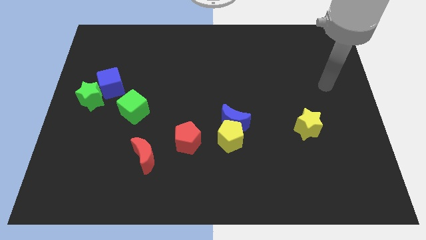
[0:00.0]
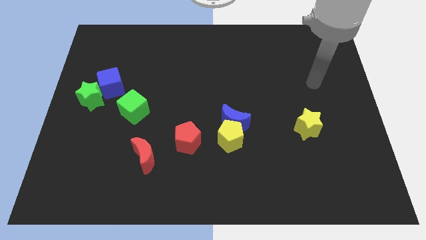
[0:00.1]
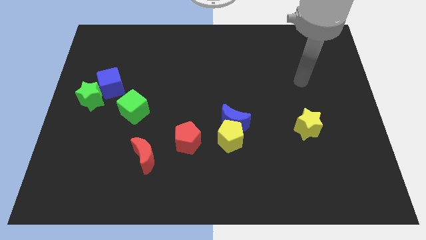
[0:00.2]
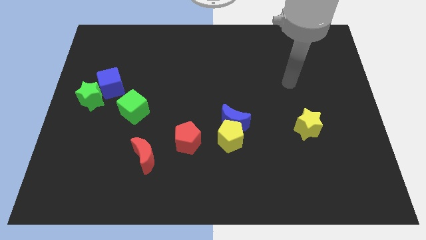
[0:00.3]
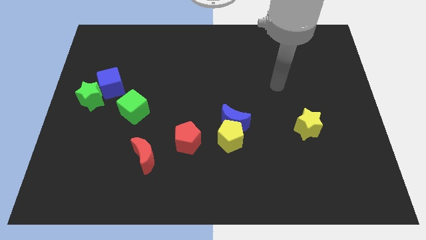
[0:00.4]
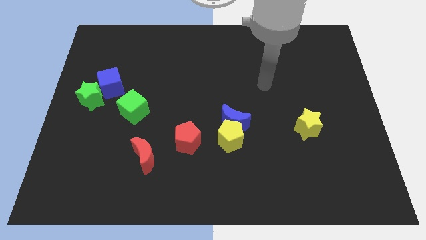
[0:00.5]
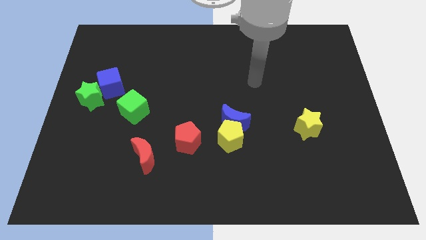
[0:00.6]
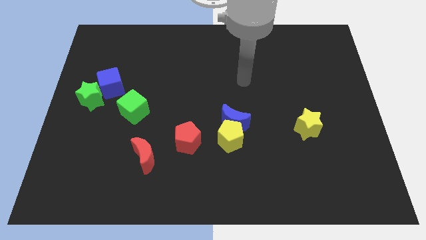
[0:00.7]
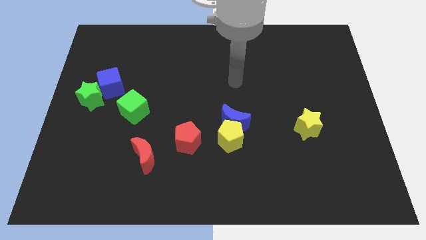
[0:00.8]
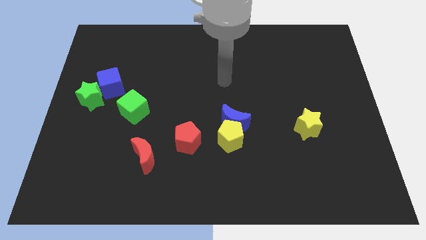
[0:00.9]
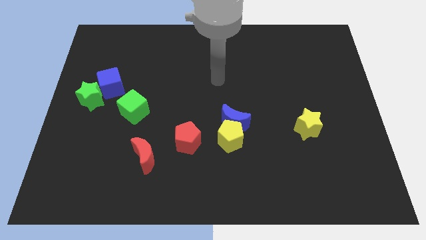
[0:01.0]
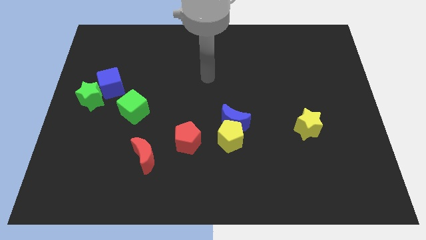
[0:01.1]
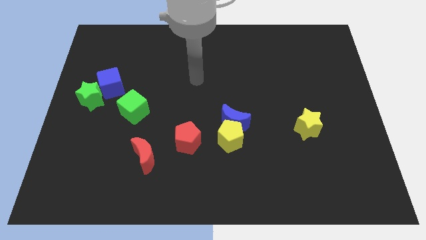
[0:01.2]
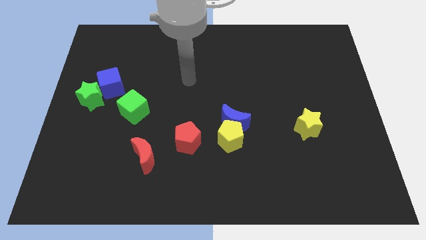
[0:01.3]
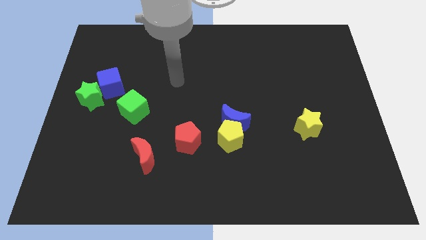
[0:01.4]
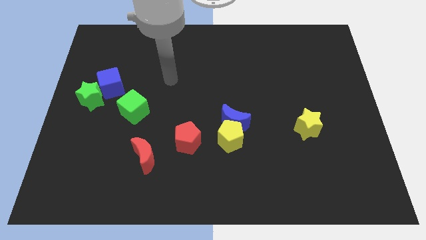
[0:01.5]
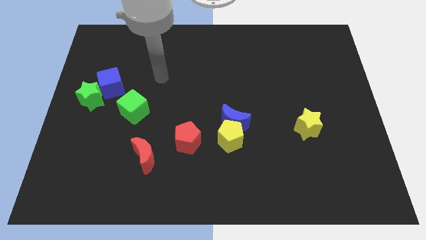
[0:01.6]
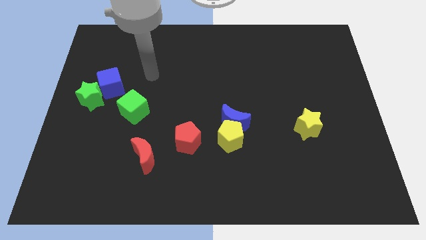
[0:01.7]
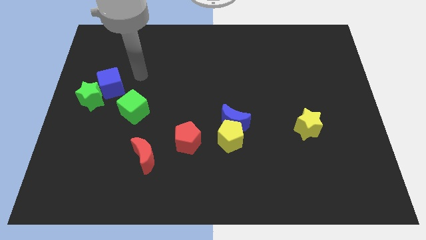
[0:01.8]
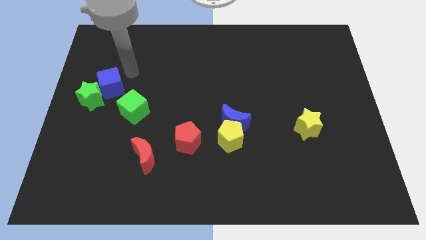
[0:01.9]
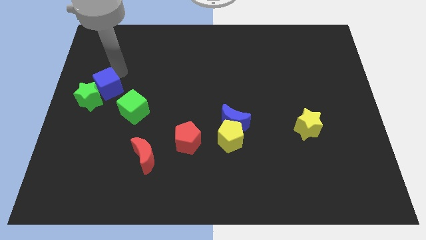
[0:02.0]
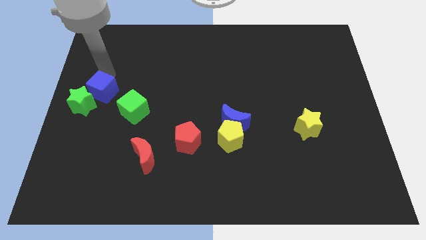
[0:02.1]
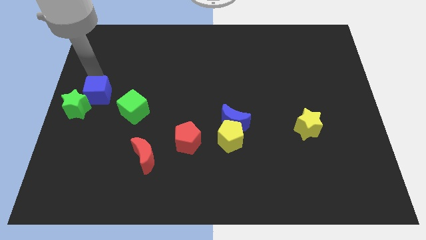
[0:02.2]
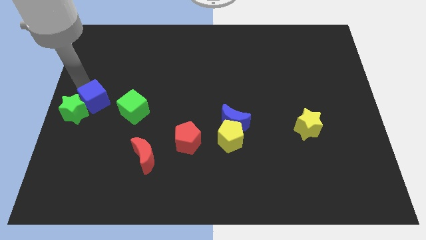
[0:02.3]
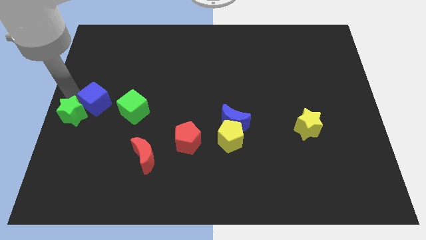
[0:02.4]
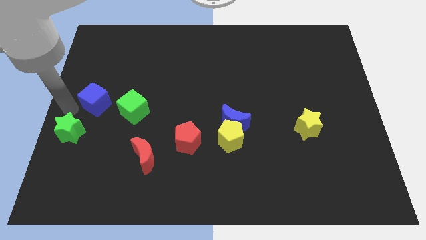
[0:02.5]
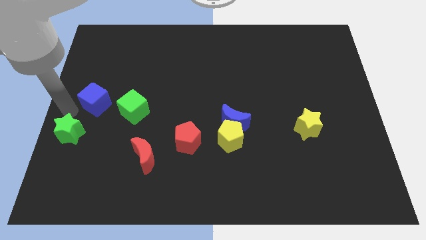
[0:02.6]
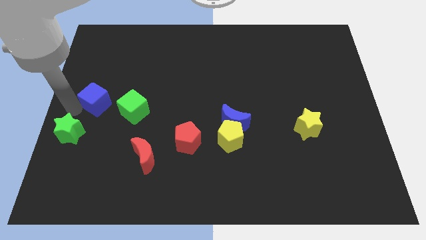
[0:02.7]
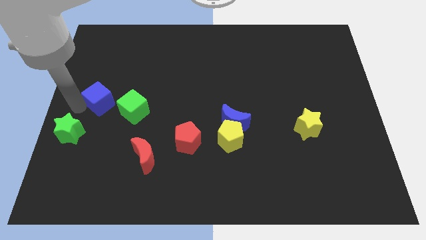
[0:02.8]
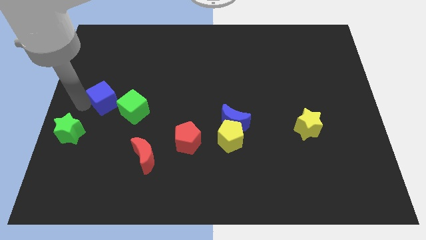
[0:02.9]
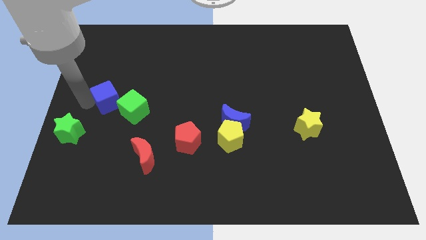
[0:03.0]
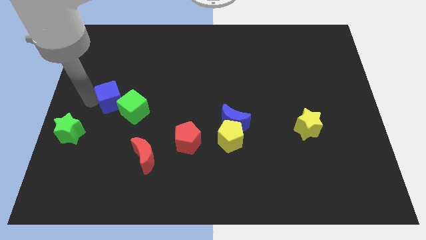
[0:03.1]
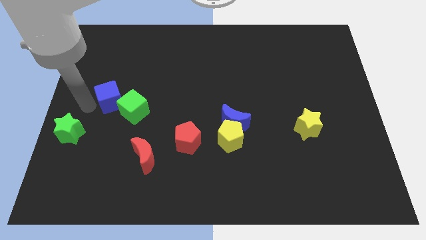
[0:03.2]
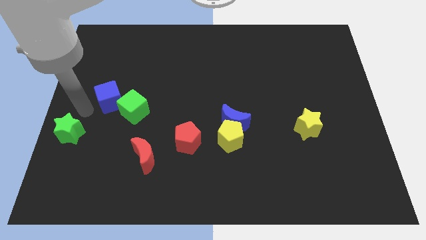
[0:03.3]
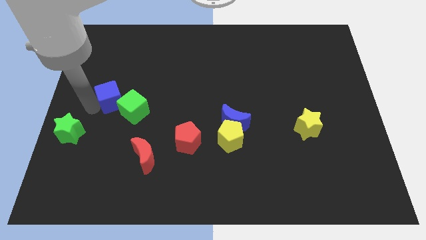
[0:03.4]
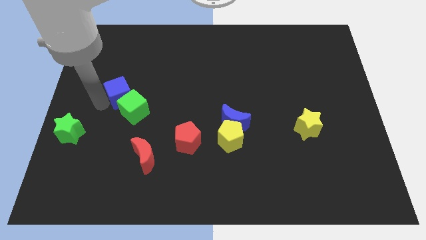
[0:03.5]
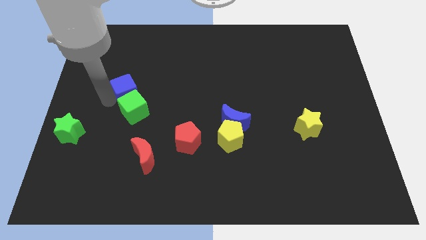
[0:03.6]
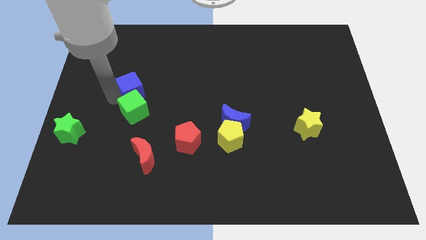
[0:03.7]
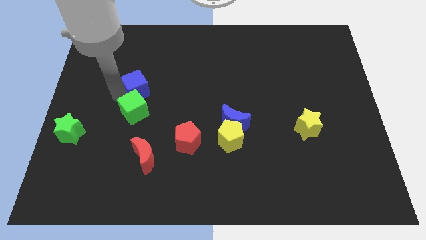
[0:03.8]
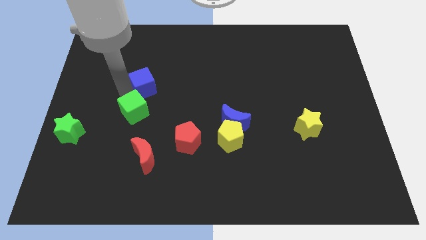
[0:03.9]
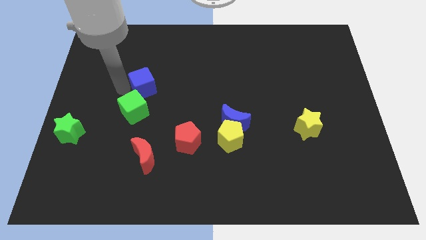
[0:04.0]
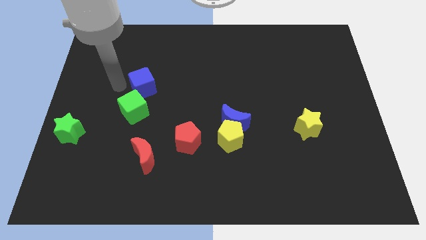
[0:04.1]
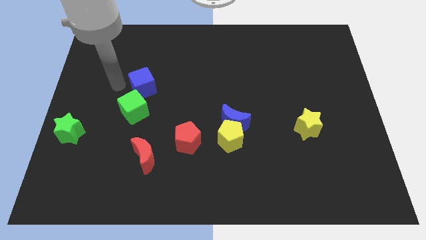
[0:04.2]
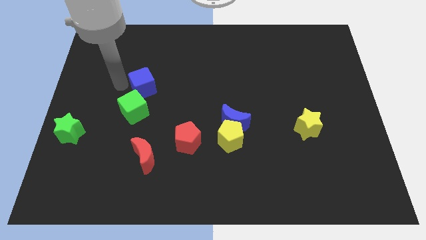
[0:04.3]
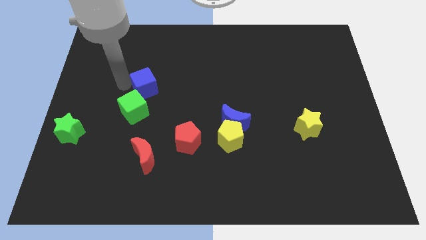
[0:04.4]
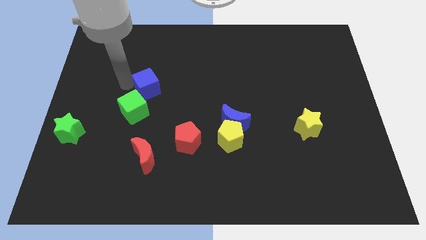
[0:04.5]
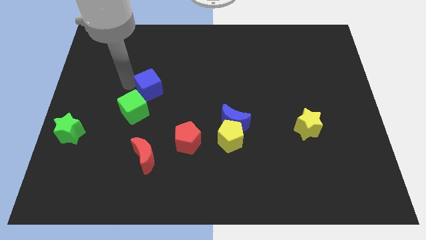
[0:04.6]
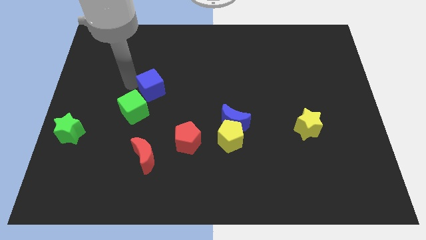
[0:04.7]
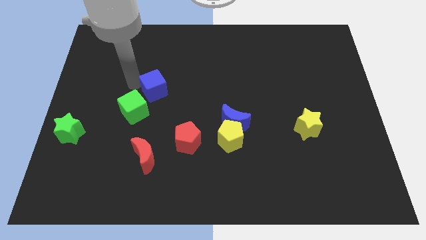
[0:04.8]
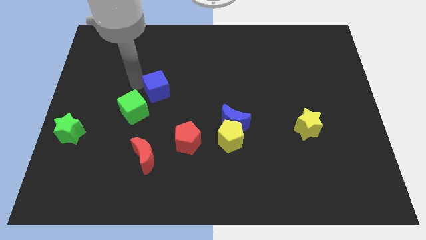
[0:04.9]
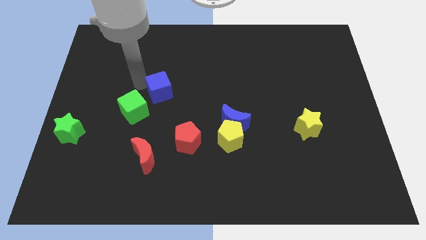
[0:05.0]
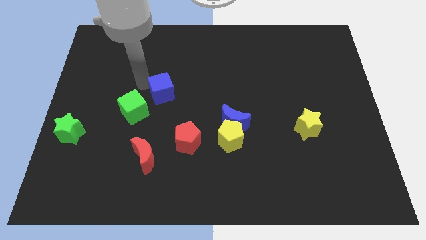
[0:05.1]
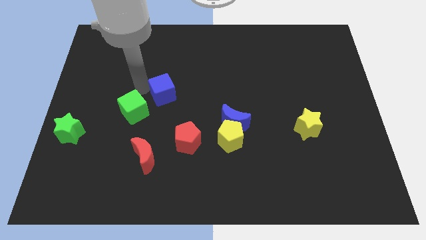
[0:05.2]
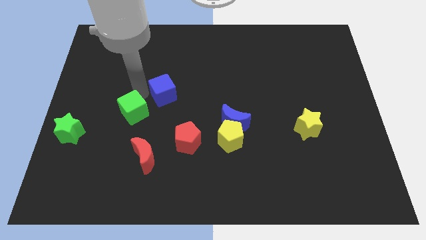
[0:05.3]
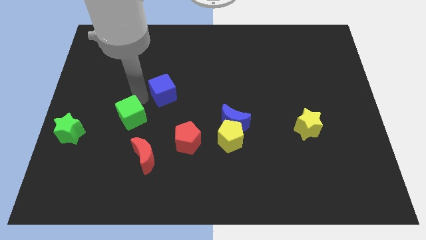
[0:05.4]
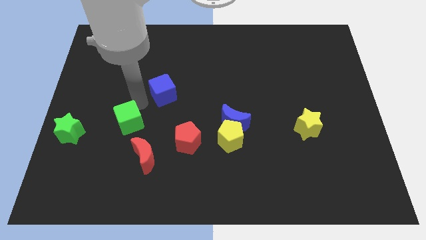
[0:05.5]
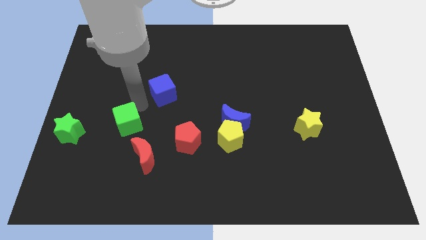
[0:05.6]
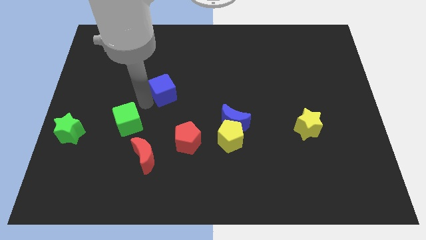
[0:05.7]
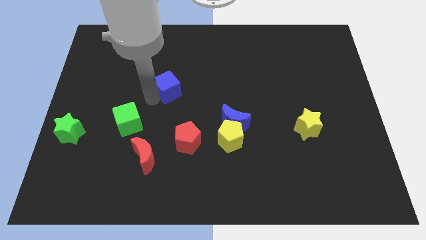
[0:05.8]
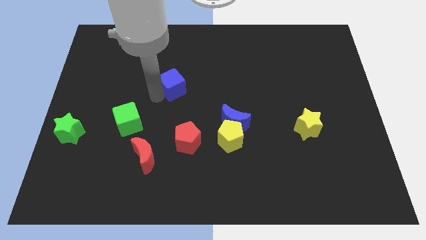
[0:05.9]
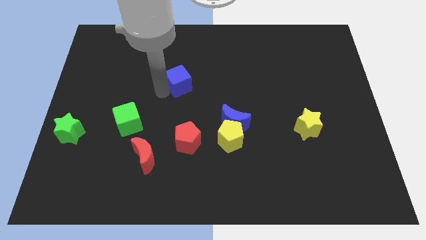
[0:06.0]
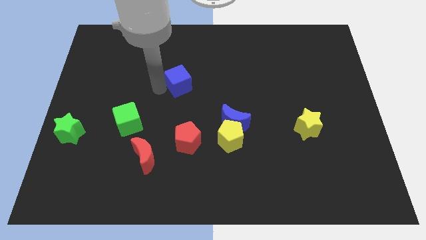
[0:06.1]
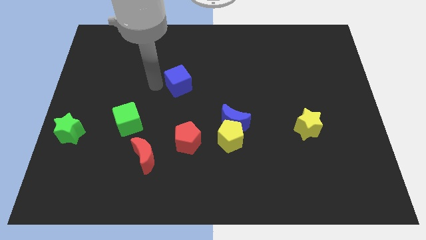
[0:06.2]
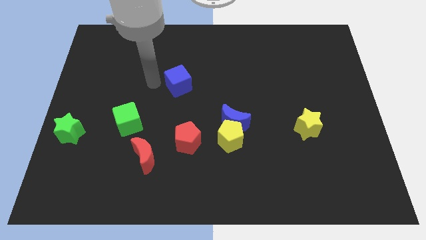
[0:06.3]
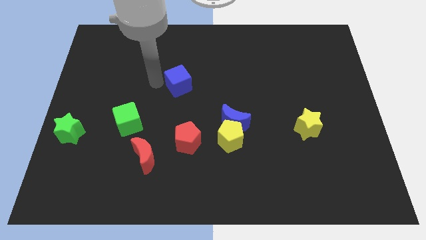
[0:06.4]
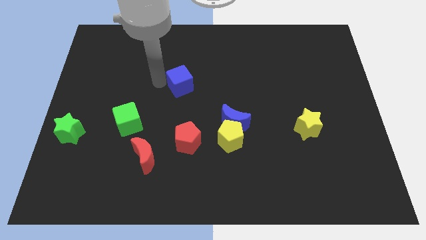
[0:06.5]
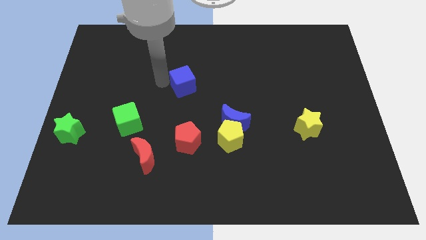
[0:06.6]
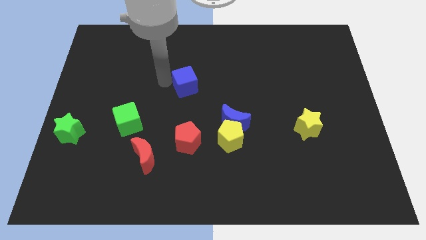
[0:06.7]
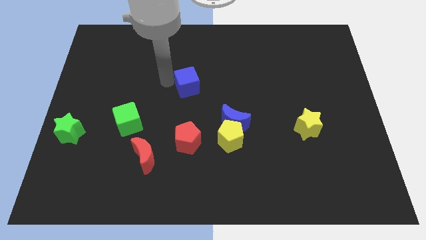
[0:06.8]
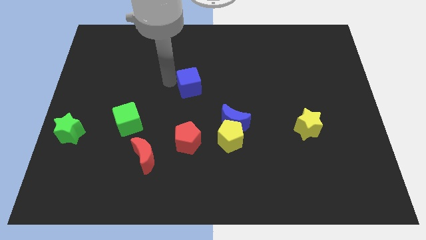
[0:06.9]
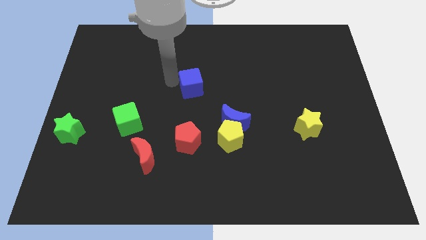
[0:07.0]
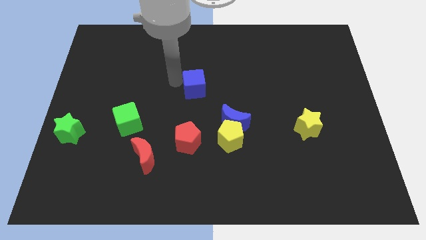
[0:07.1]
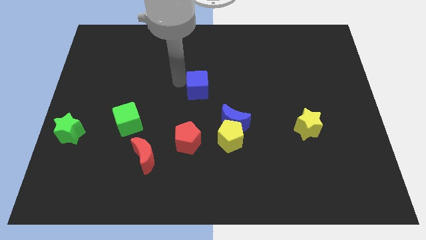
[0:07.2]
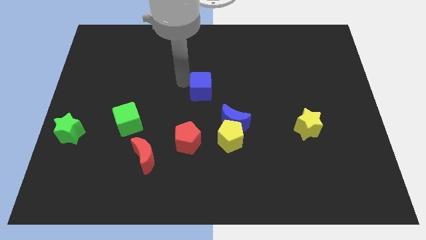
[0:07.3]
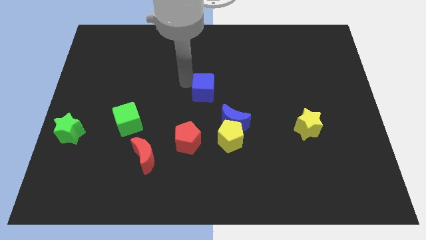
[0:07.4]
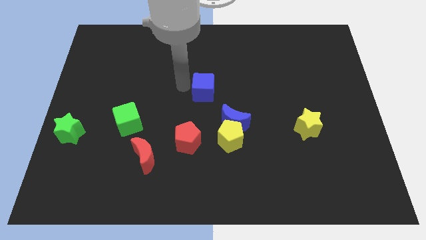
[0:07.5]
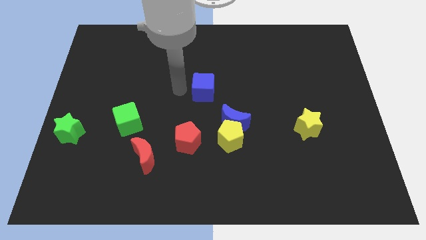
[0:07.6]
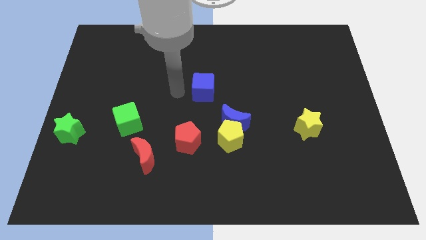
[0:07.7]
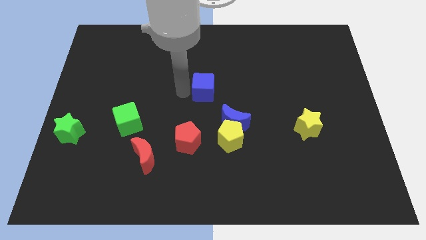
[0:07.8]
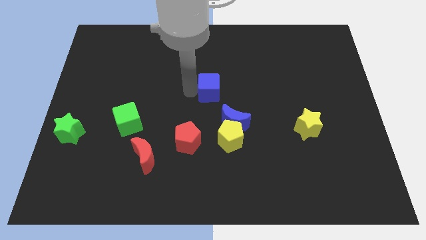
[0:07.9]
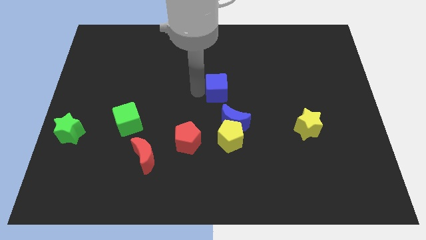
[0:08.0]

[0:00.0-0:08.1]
slide the blue cube above the blue moon
